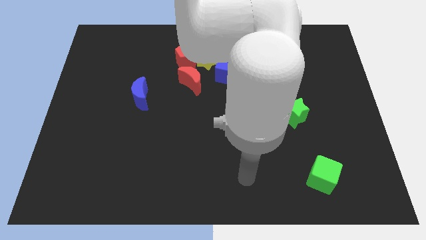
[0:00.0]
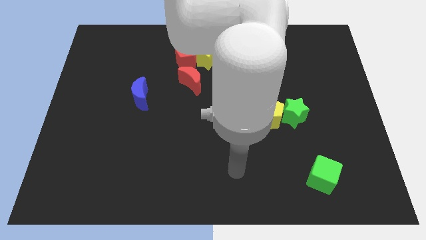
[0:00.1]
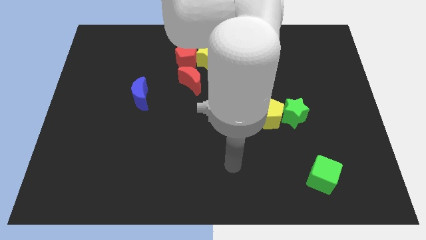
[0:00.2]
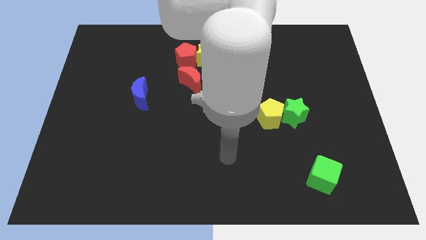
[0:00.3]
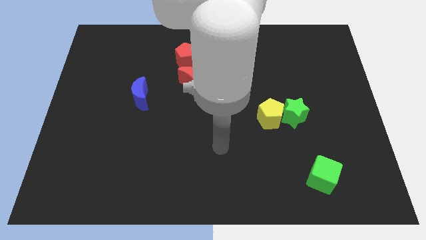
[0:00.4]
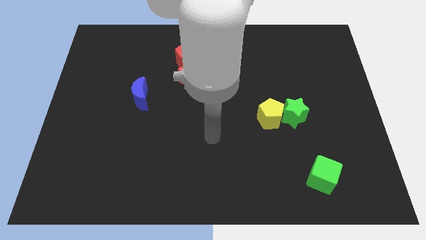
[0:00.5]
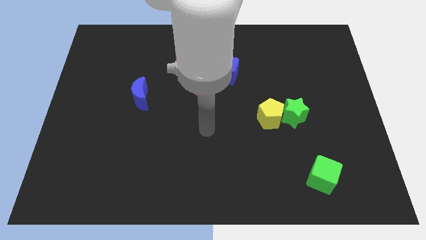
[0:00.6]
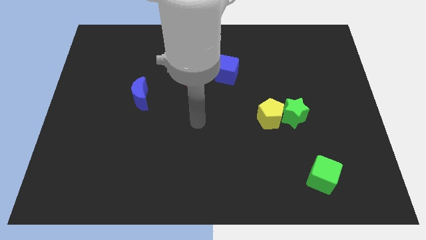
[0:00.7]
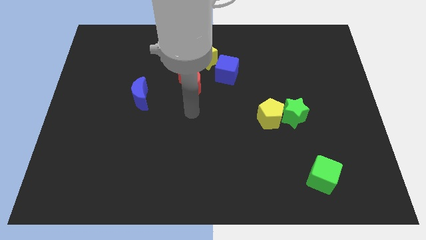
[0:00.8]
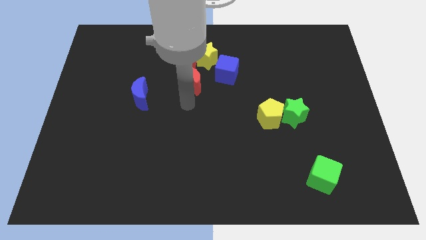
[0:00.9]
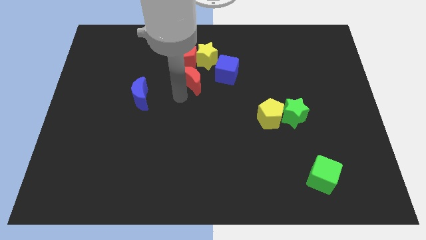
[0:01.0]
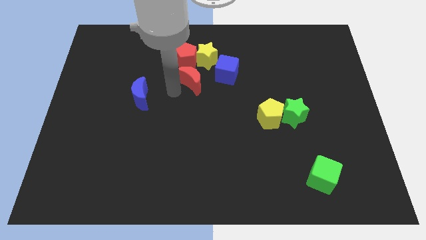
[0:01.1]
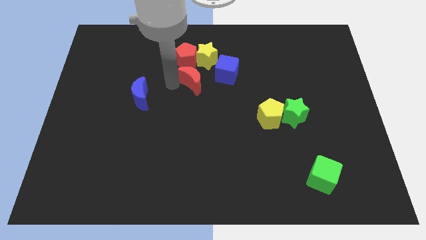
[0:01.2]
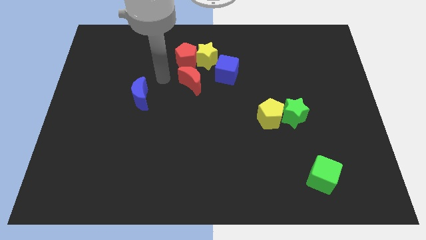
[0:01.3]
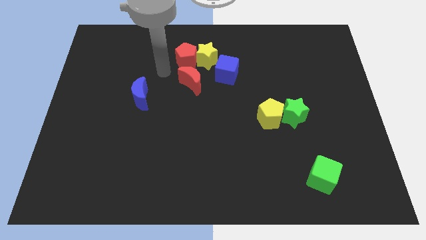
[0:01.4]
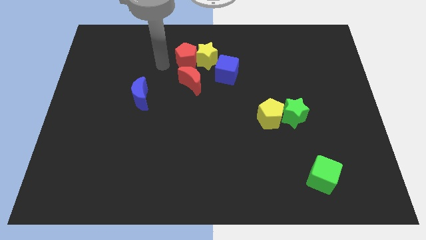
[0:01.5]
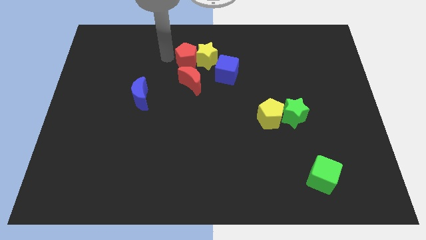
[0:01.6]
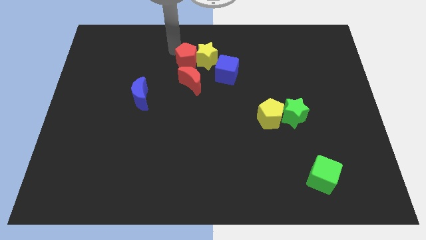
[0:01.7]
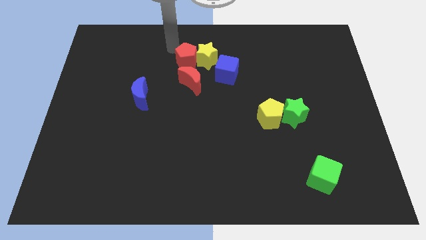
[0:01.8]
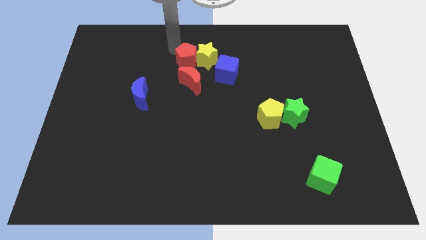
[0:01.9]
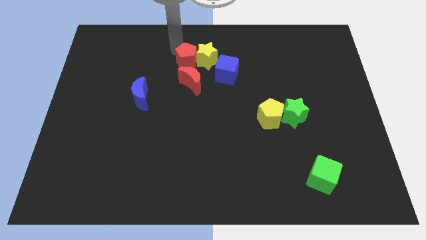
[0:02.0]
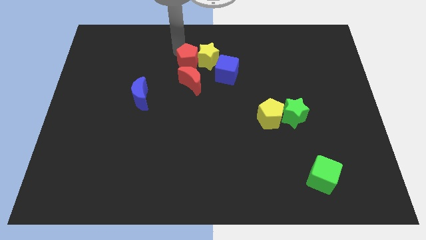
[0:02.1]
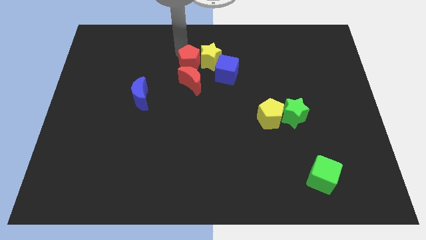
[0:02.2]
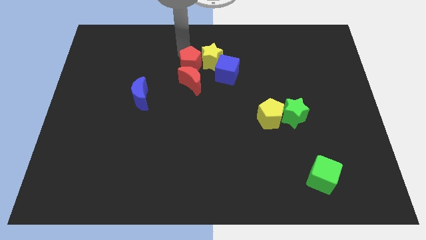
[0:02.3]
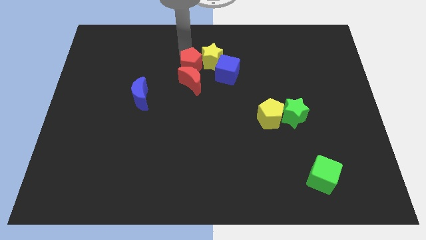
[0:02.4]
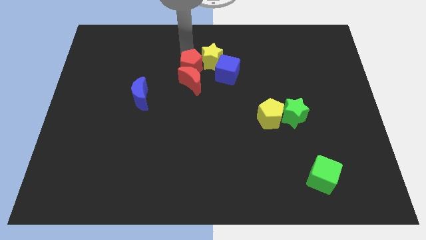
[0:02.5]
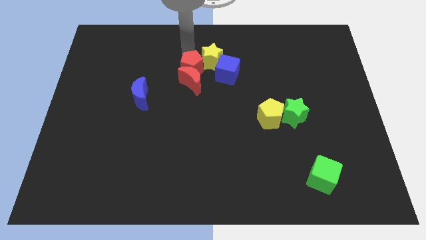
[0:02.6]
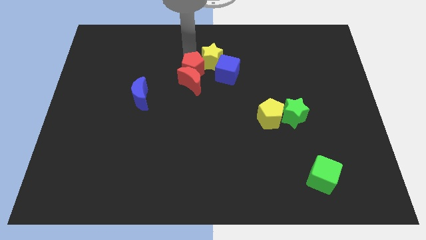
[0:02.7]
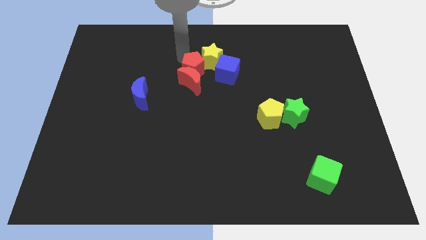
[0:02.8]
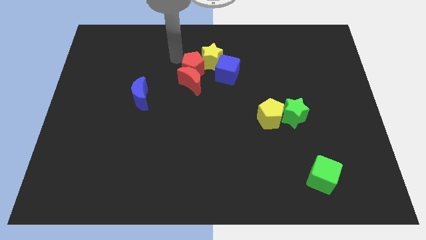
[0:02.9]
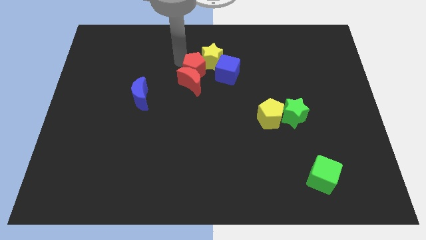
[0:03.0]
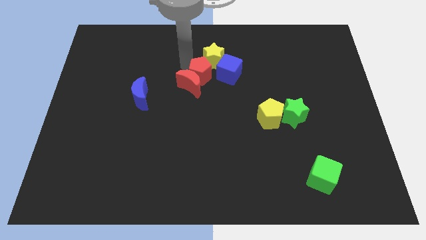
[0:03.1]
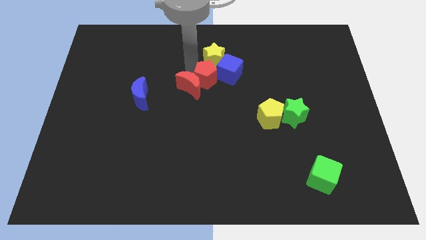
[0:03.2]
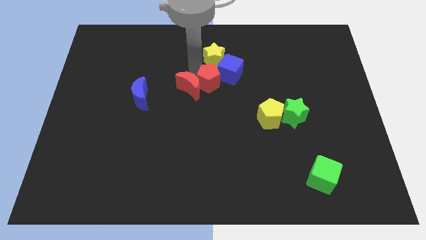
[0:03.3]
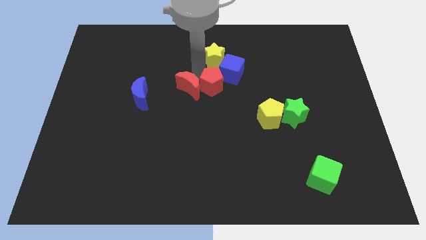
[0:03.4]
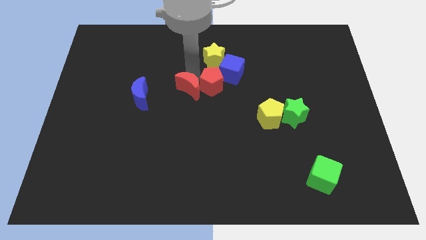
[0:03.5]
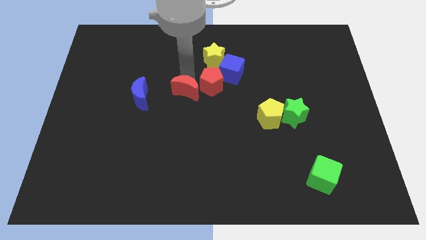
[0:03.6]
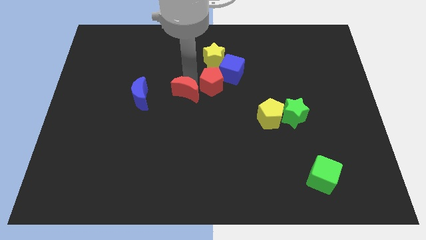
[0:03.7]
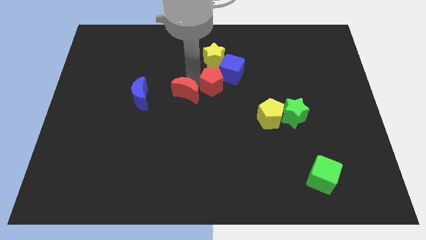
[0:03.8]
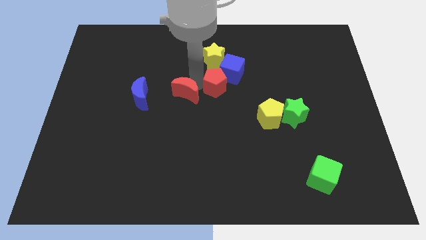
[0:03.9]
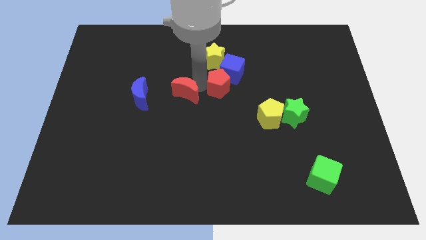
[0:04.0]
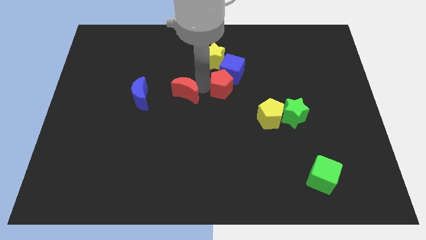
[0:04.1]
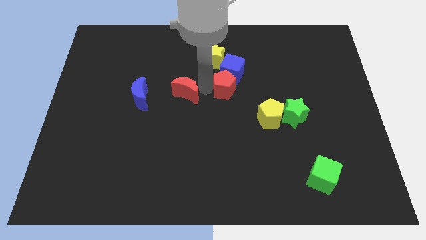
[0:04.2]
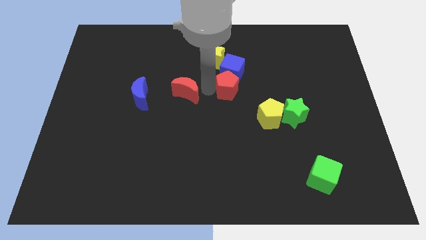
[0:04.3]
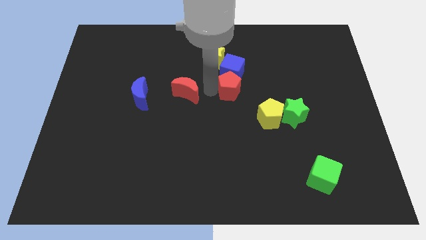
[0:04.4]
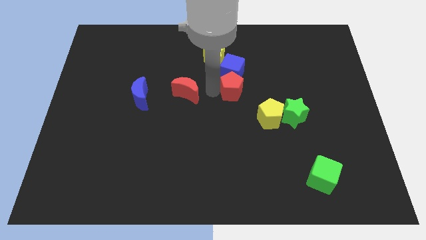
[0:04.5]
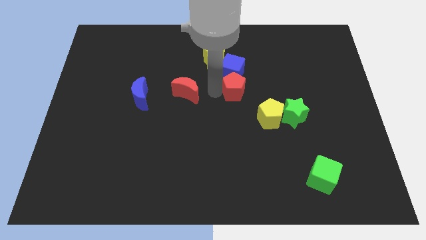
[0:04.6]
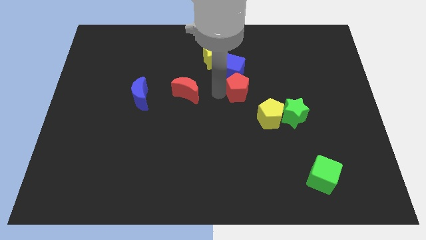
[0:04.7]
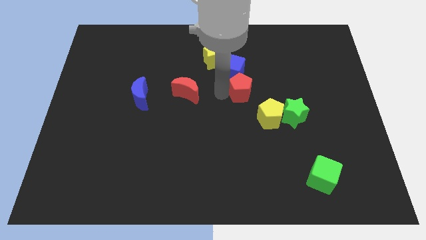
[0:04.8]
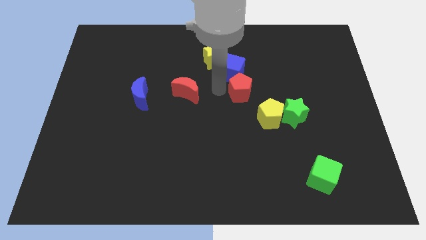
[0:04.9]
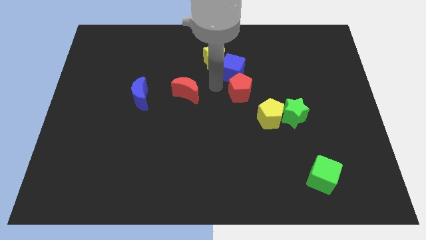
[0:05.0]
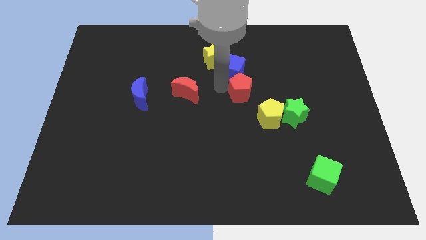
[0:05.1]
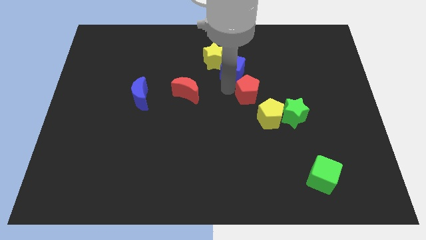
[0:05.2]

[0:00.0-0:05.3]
move the red pentagon to the top left side of the green star
